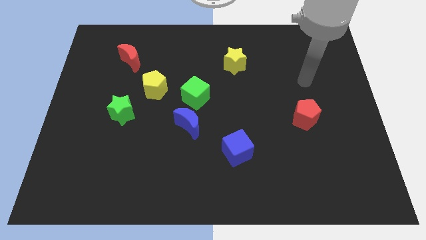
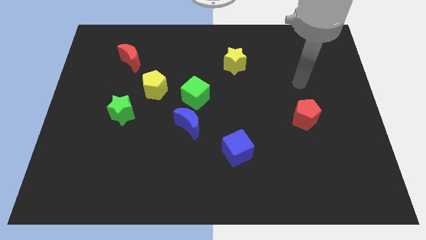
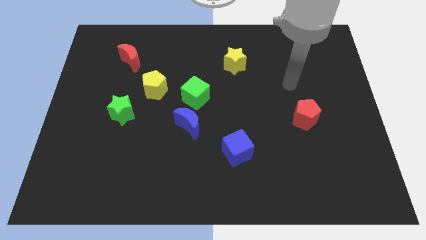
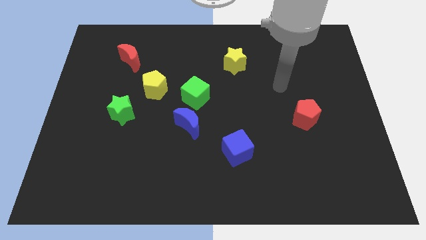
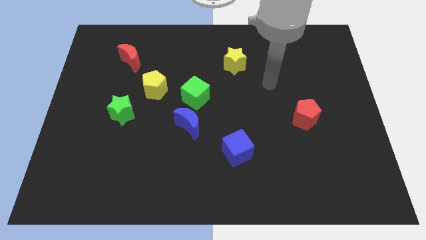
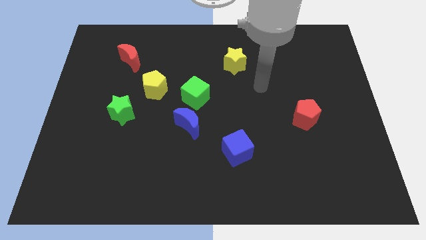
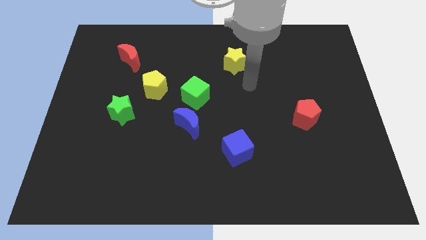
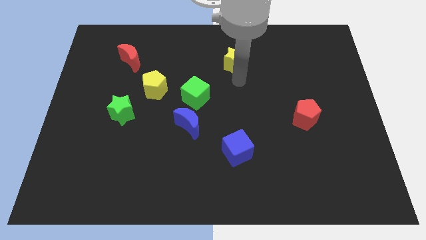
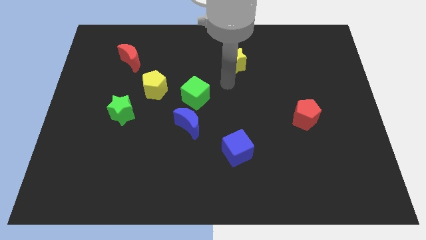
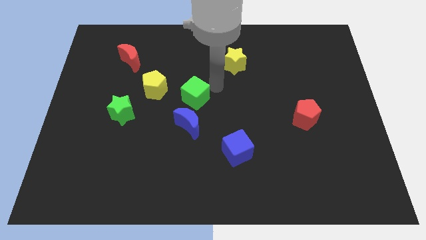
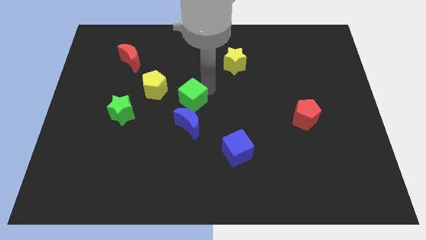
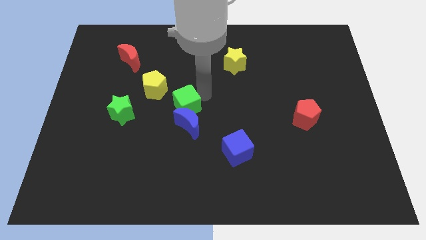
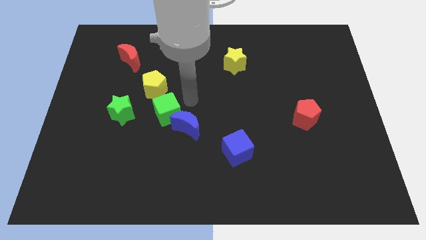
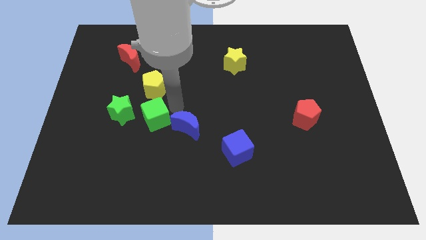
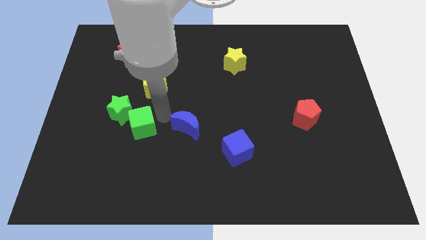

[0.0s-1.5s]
move the blue moon away from the green cube

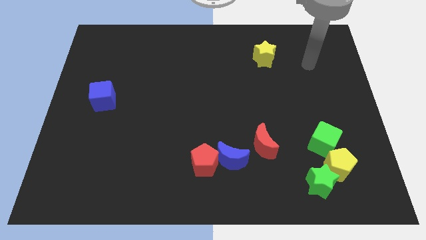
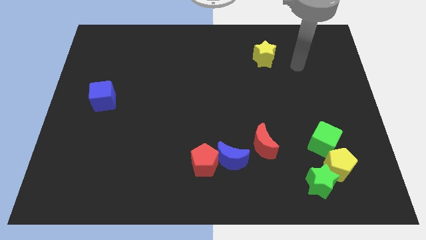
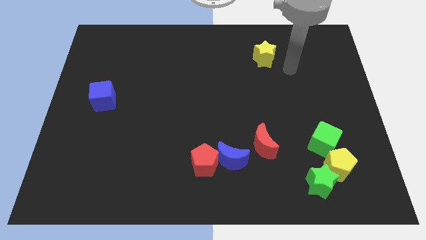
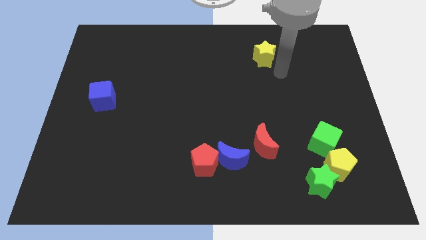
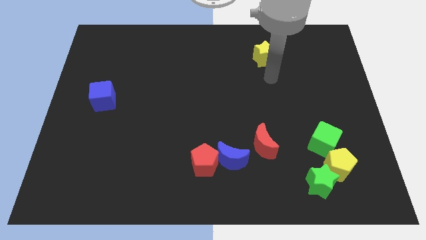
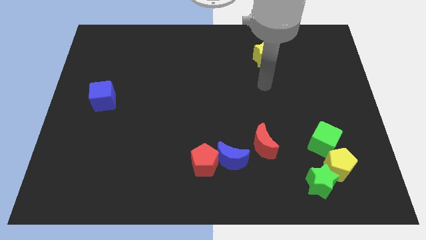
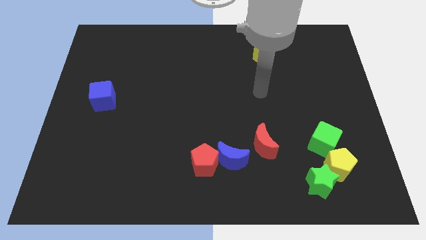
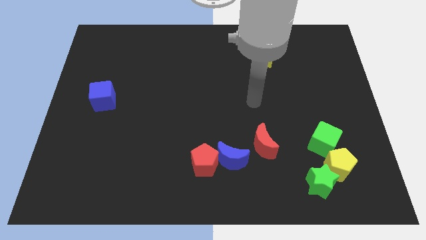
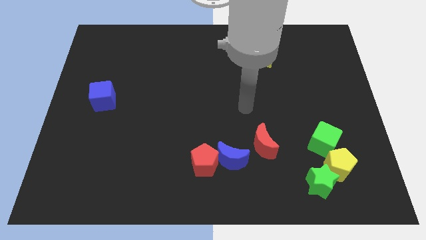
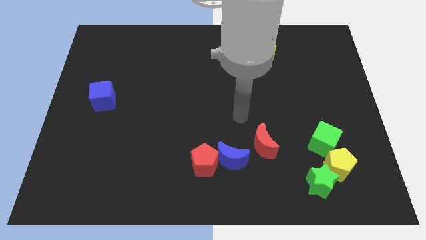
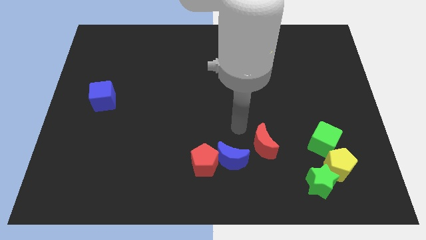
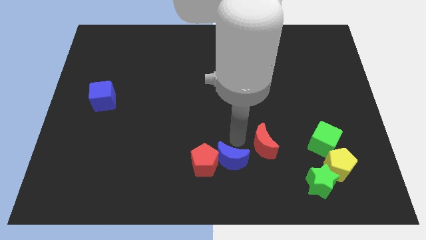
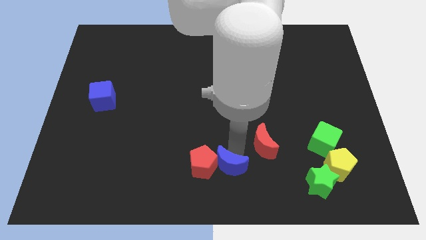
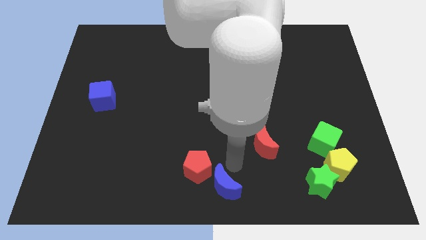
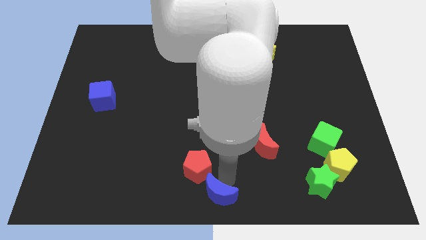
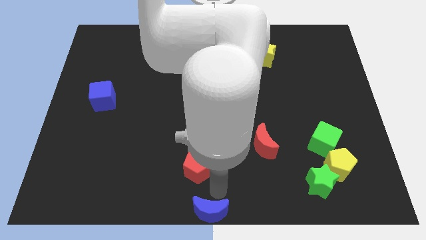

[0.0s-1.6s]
pull the red pentagon apart from the blue moon

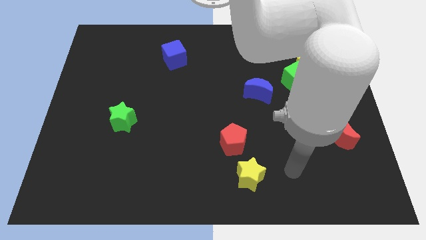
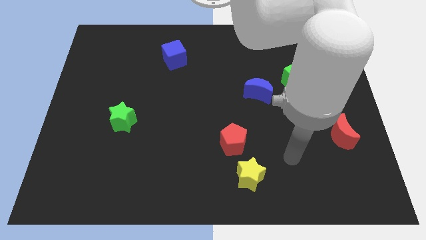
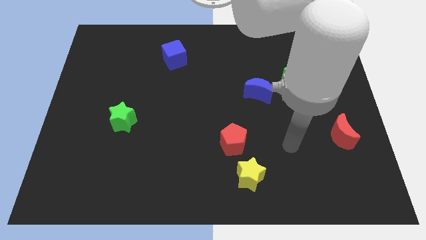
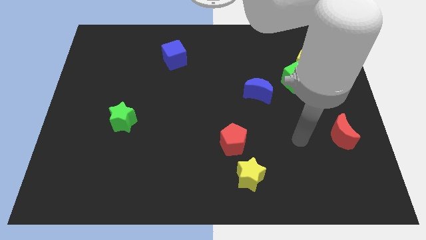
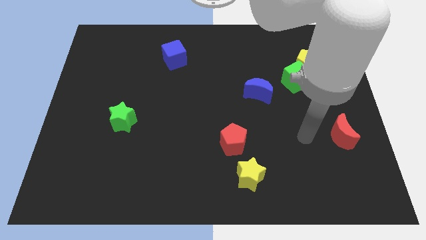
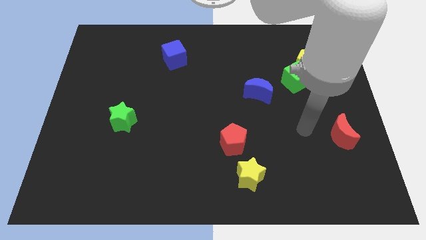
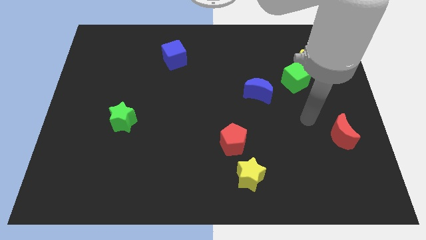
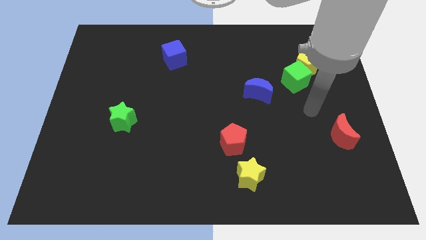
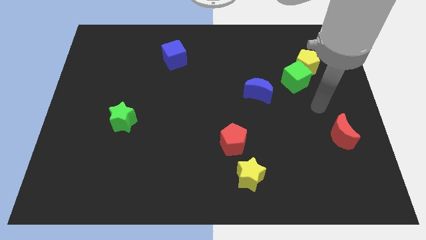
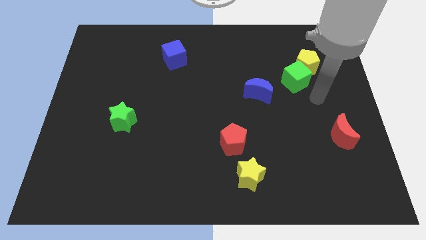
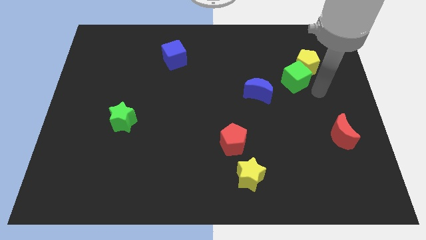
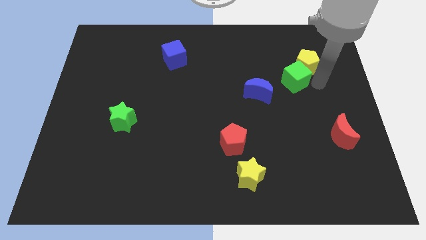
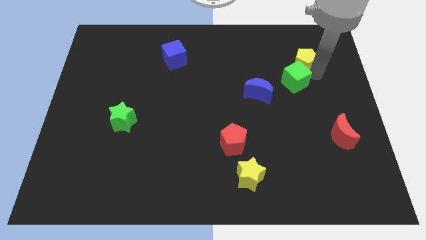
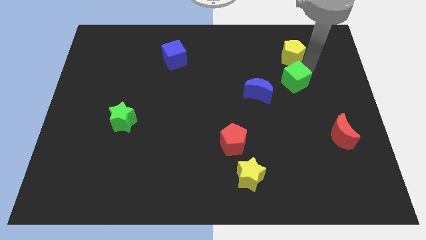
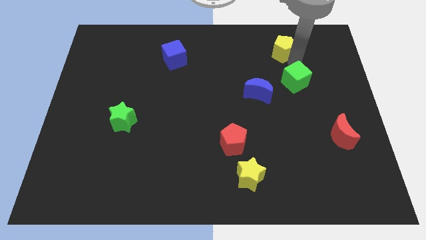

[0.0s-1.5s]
separate the green cube from the yellow pentagon

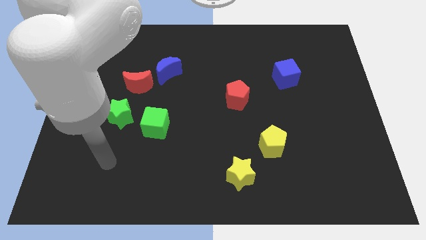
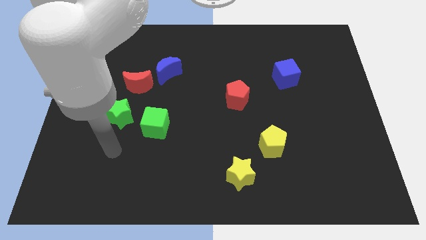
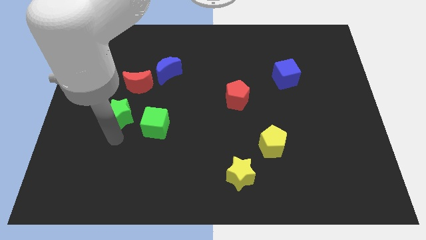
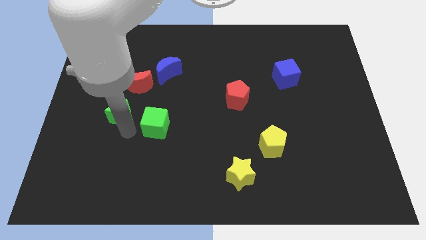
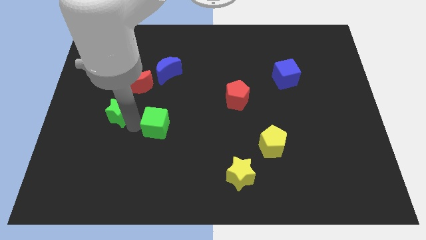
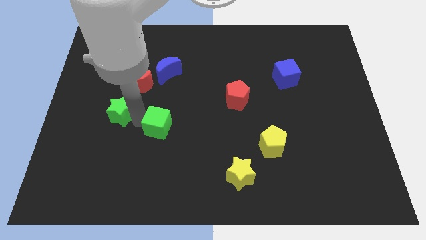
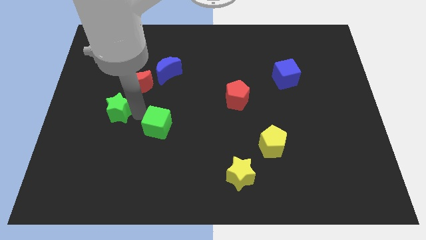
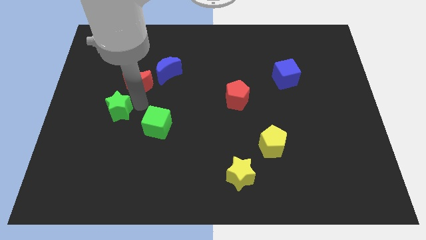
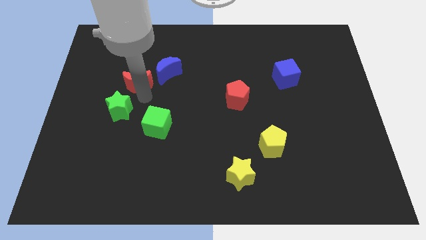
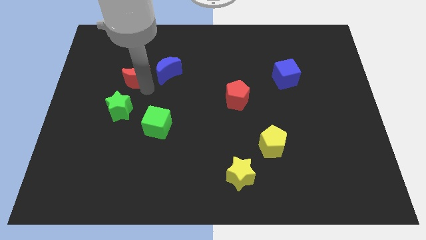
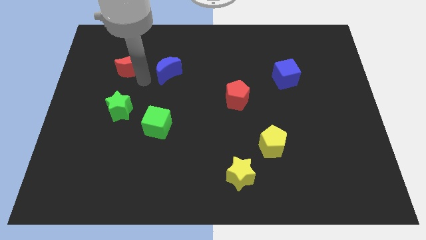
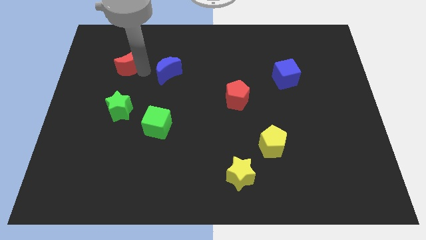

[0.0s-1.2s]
pull the blue moon apart from the red moon

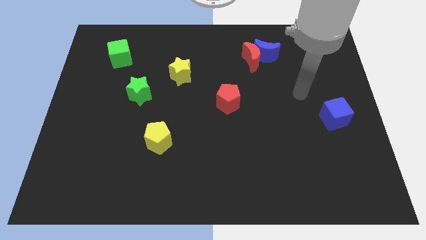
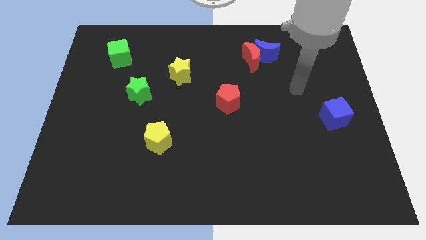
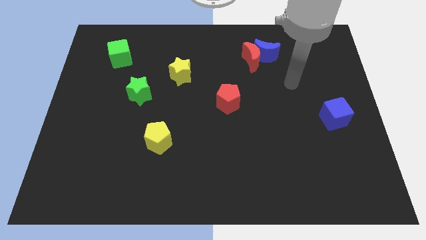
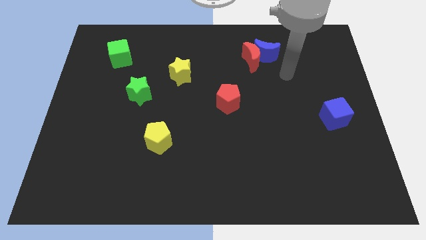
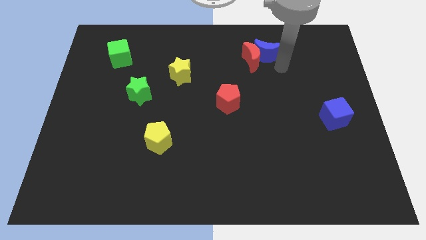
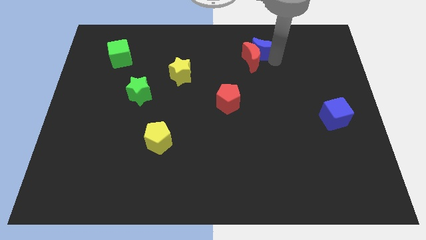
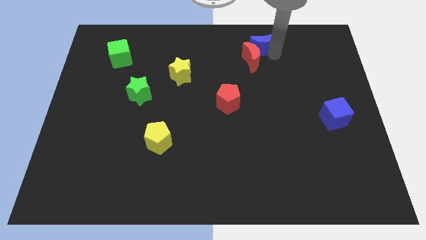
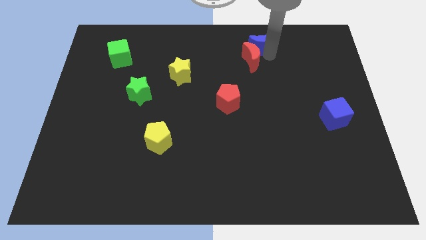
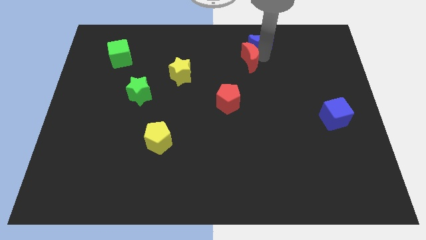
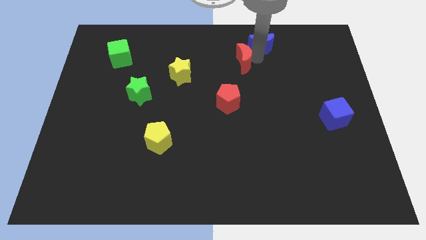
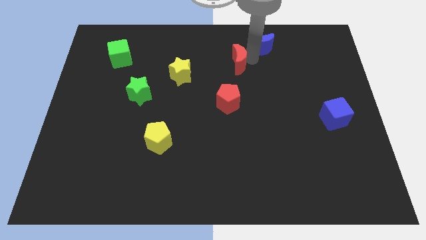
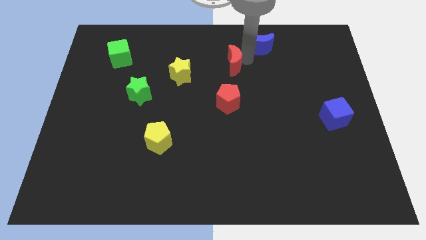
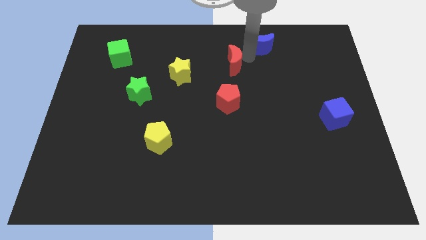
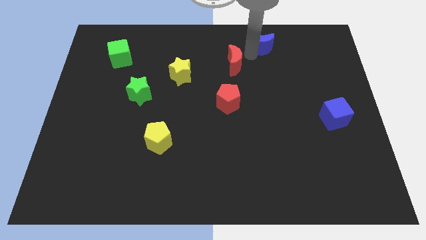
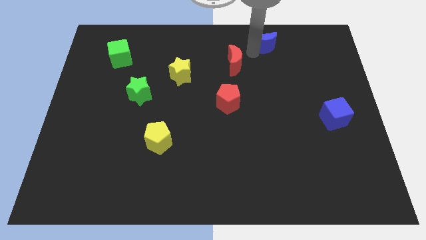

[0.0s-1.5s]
separate the red moon from the blue moon

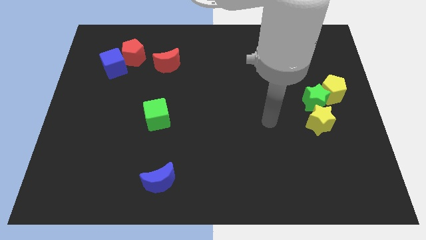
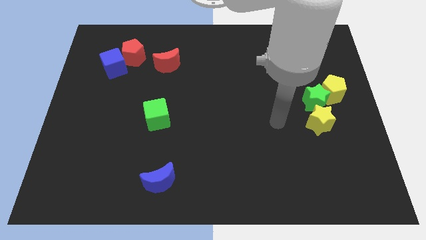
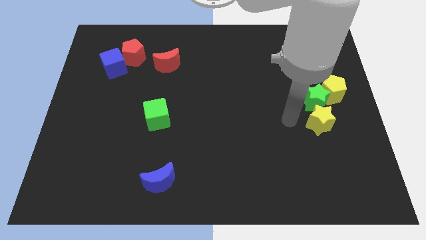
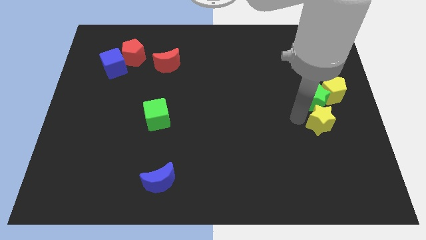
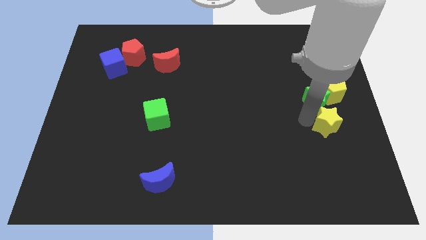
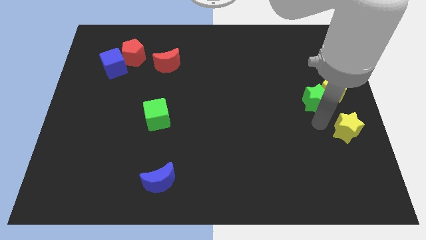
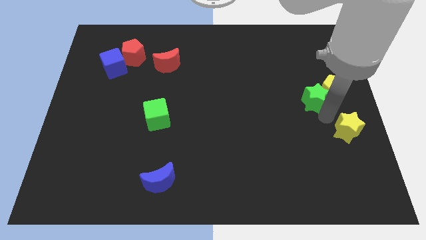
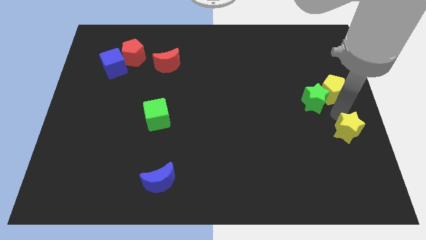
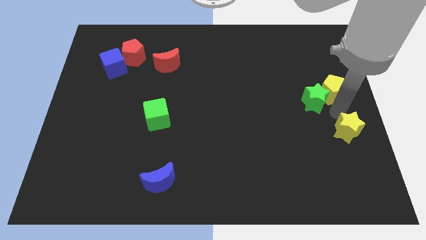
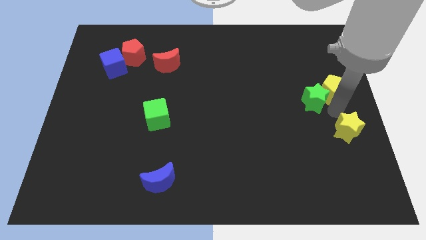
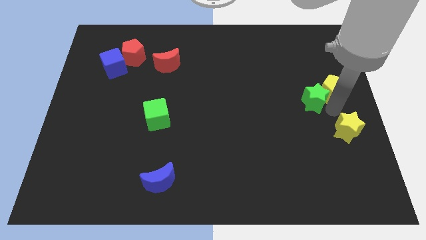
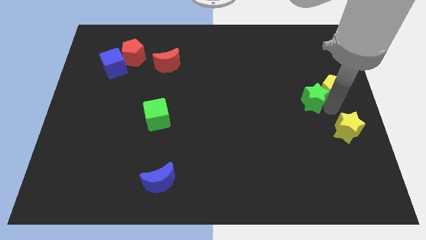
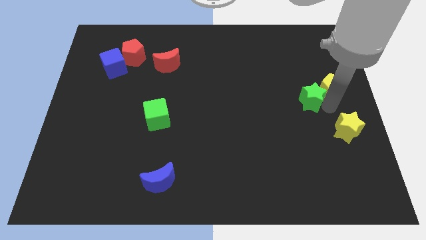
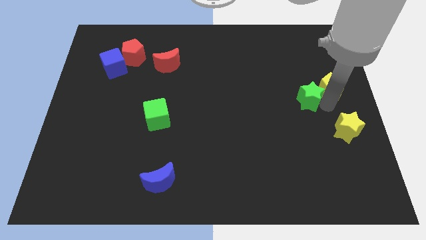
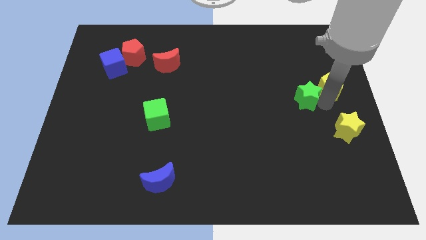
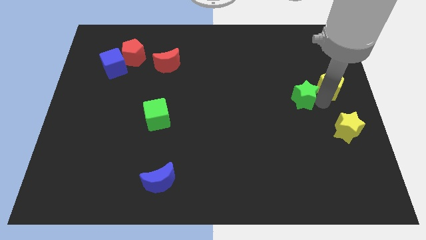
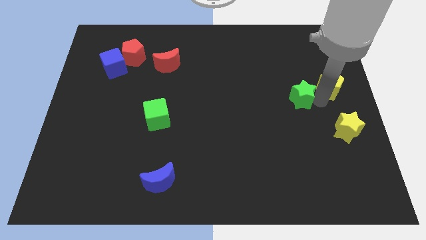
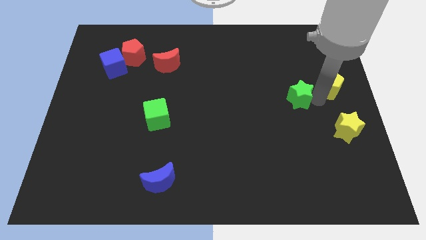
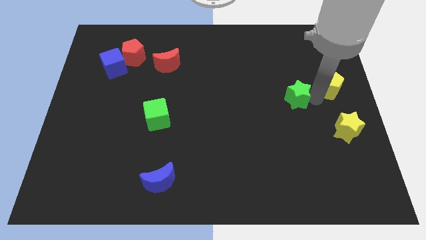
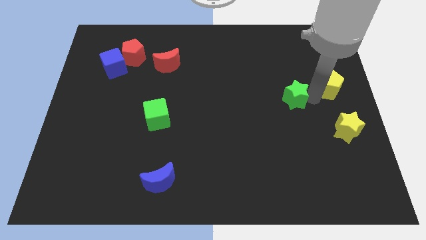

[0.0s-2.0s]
separate the green star from the yellow pentagon and yellow star
